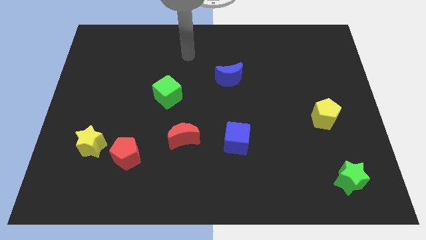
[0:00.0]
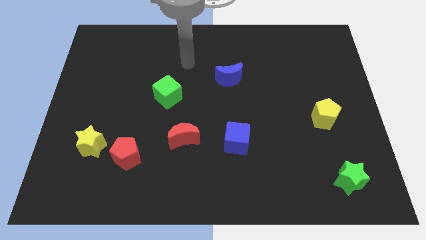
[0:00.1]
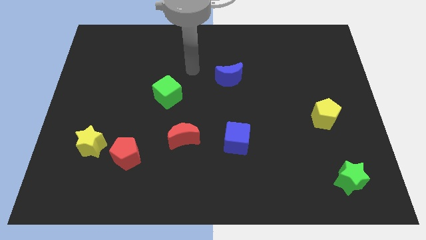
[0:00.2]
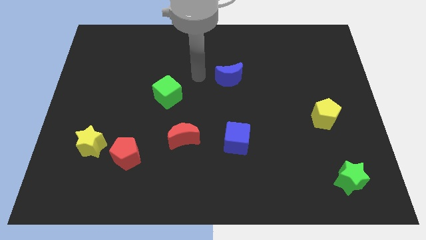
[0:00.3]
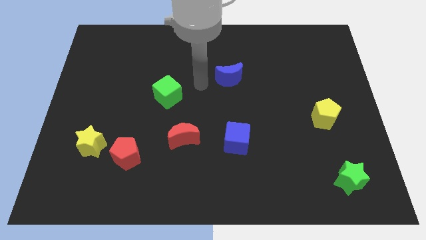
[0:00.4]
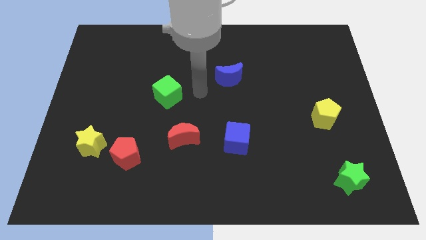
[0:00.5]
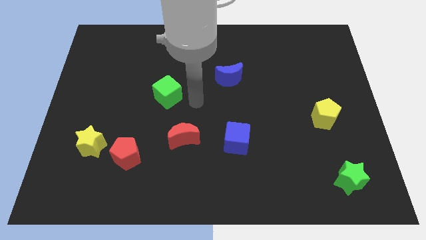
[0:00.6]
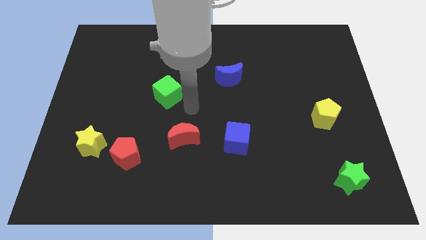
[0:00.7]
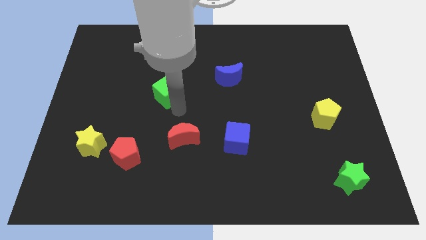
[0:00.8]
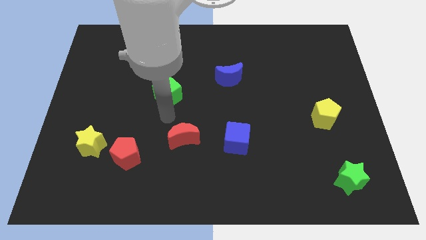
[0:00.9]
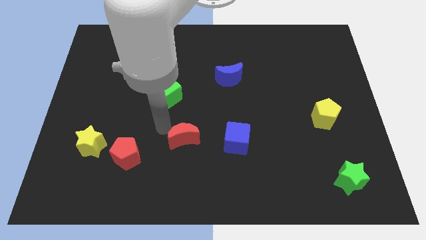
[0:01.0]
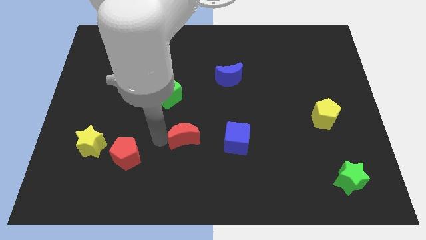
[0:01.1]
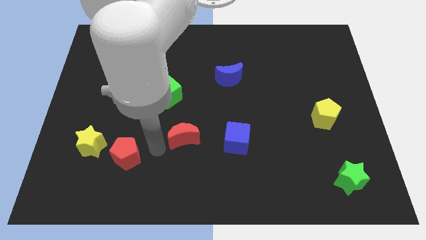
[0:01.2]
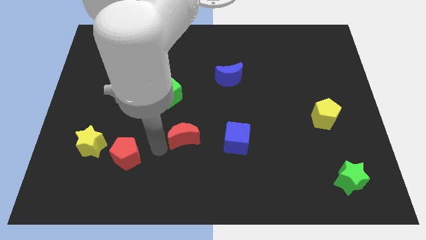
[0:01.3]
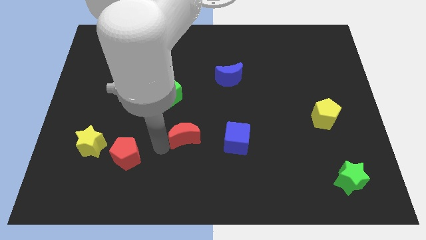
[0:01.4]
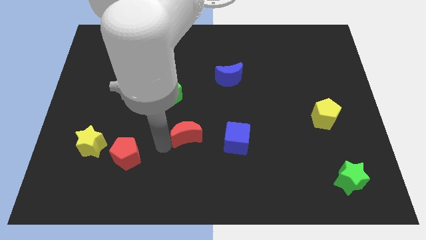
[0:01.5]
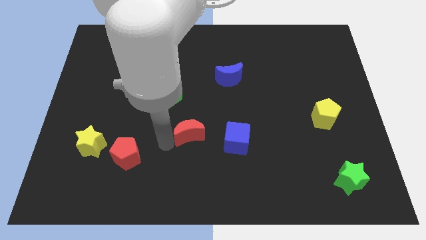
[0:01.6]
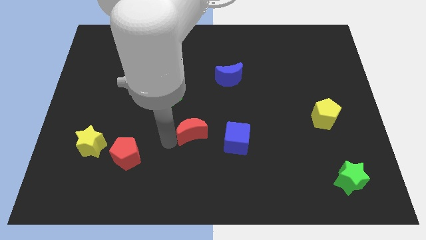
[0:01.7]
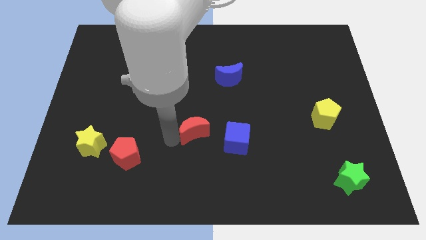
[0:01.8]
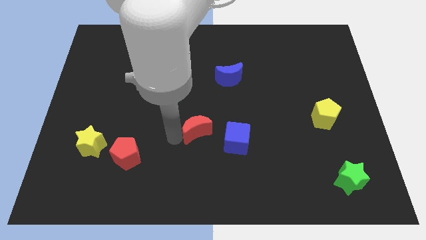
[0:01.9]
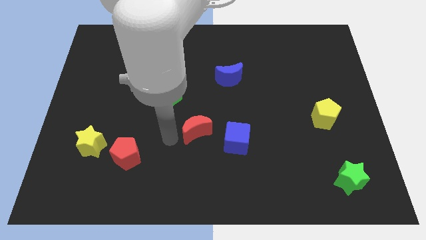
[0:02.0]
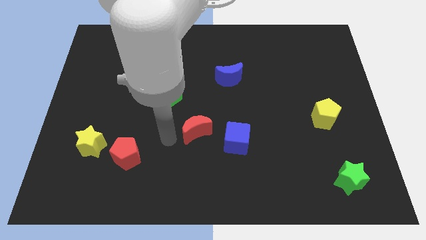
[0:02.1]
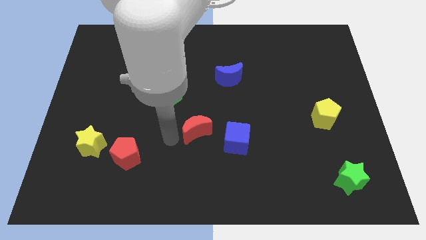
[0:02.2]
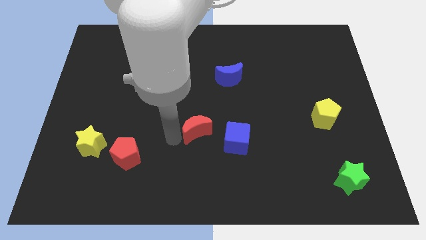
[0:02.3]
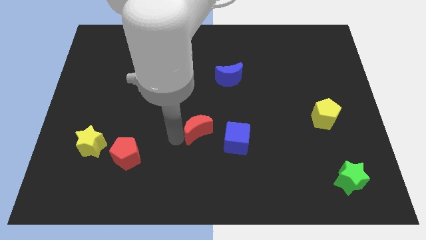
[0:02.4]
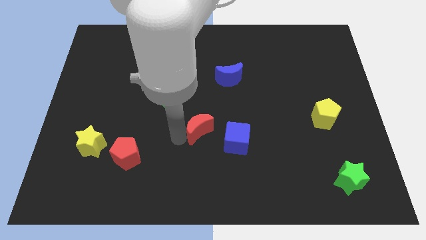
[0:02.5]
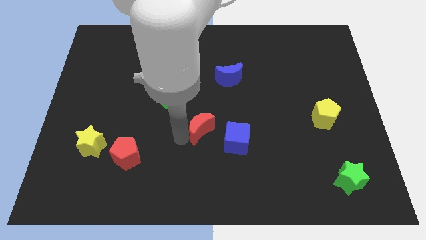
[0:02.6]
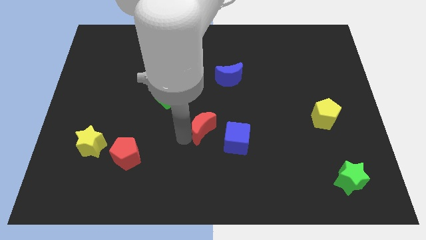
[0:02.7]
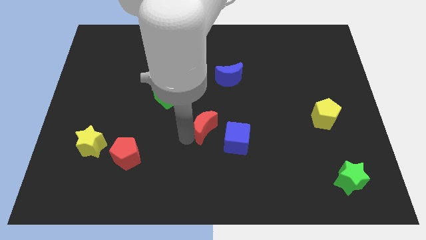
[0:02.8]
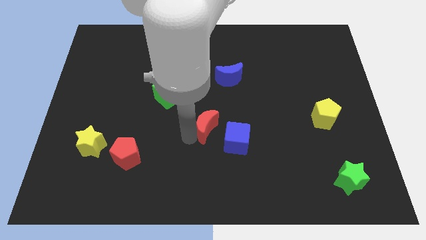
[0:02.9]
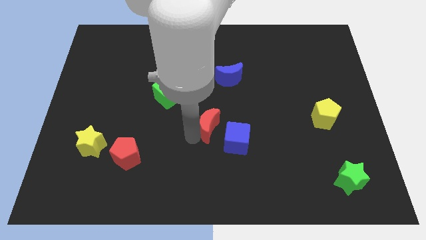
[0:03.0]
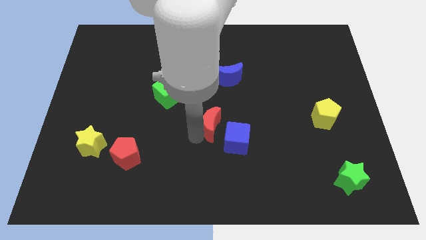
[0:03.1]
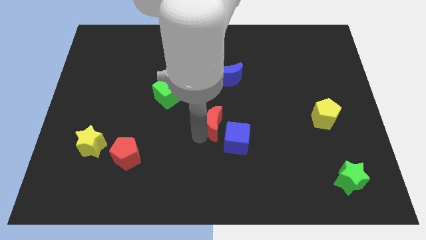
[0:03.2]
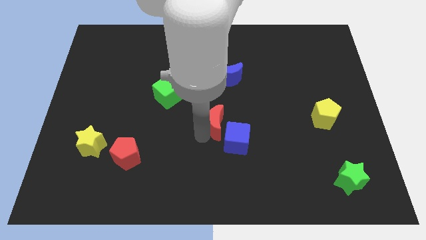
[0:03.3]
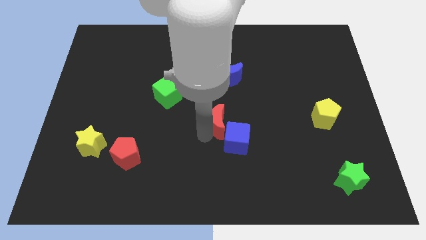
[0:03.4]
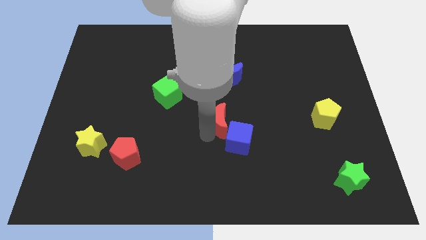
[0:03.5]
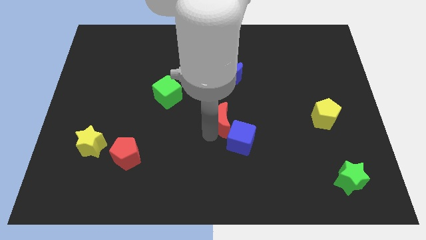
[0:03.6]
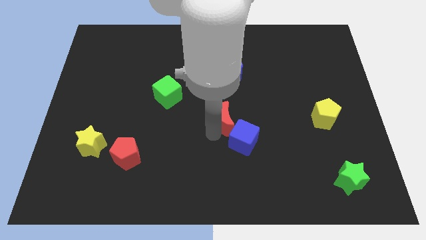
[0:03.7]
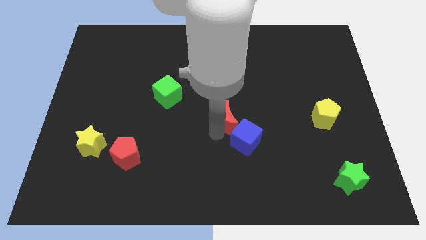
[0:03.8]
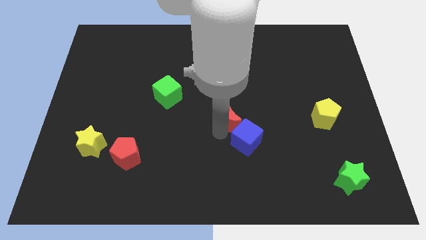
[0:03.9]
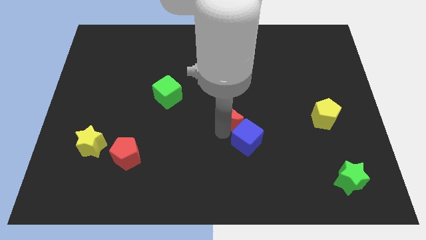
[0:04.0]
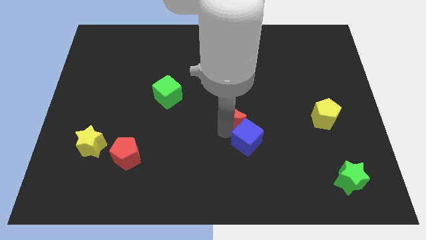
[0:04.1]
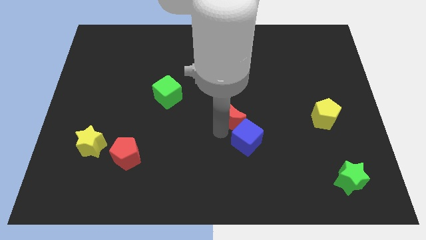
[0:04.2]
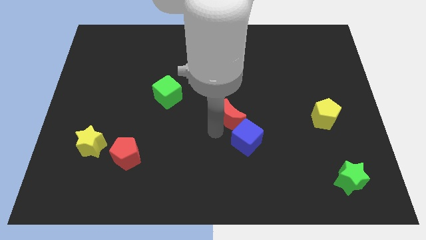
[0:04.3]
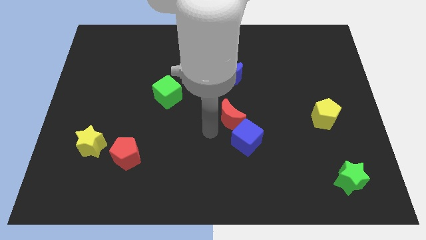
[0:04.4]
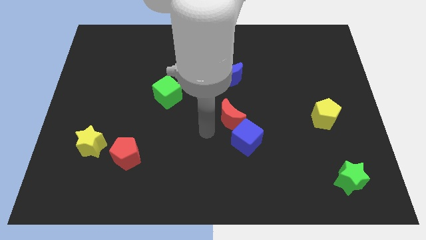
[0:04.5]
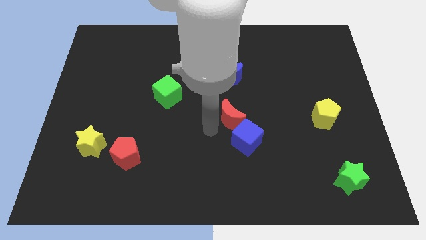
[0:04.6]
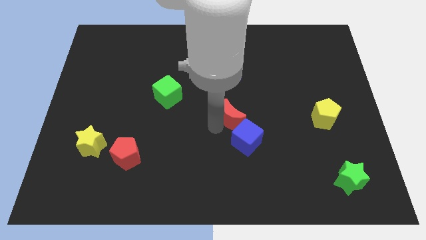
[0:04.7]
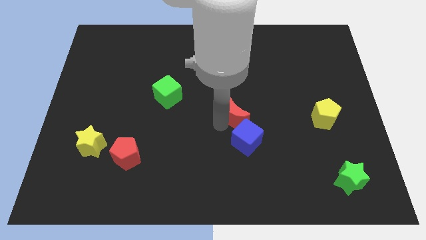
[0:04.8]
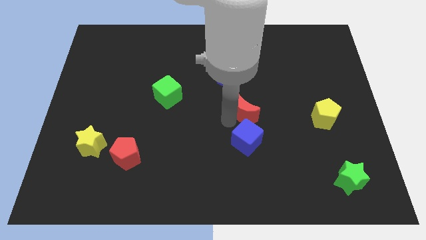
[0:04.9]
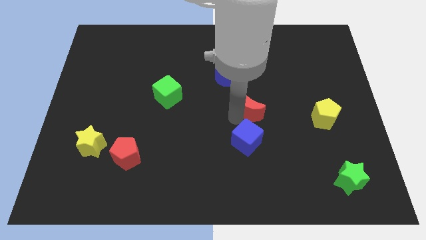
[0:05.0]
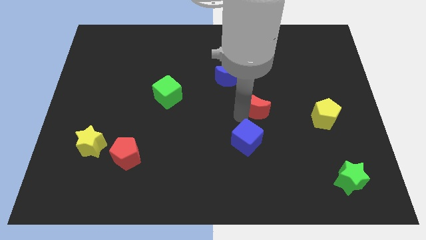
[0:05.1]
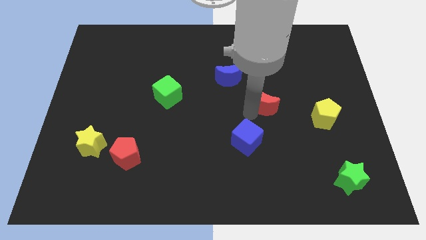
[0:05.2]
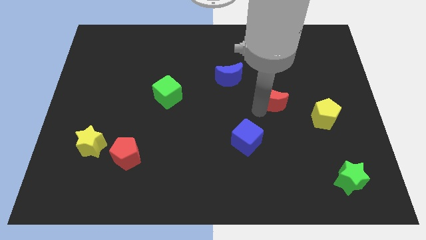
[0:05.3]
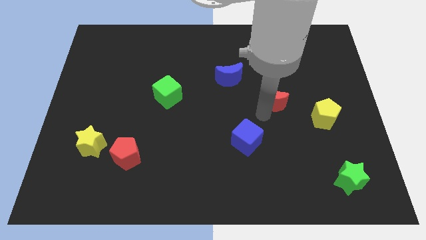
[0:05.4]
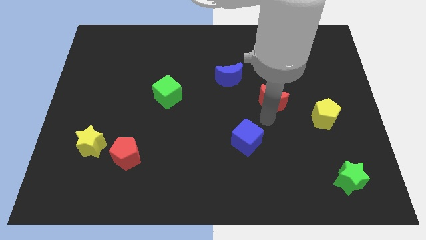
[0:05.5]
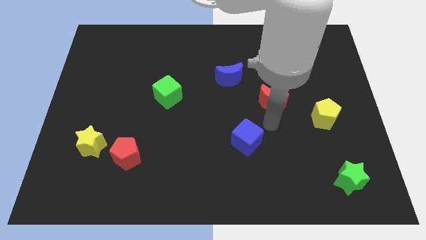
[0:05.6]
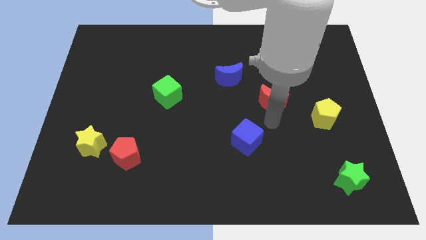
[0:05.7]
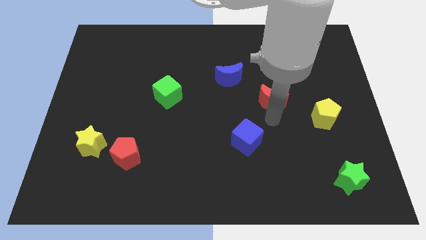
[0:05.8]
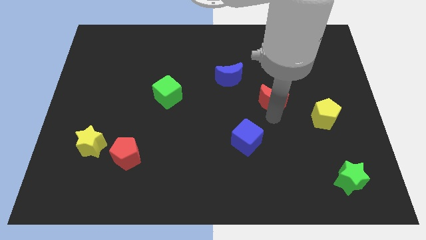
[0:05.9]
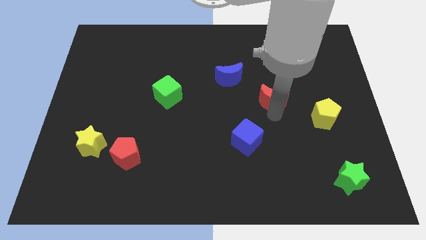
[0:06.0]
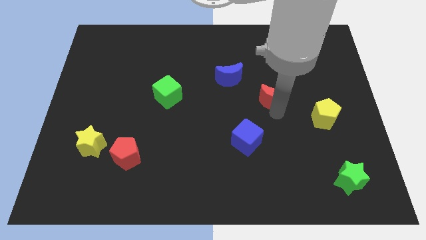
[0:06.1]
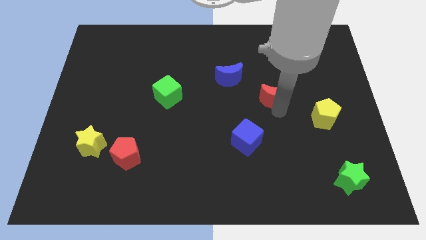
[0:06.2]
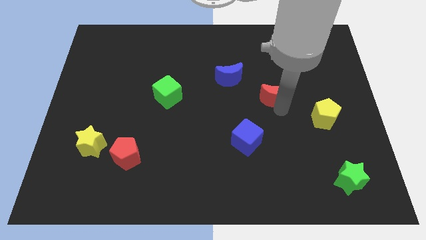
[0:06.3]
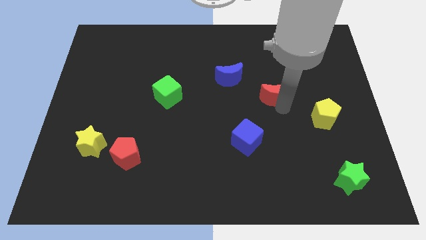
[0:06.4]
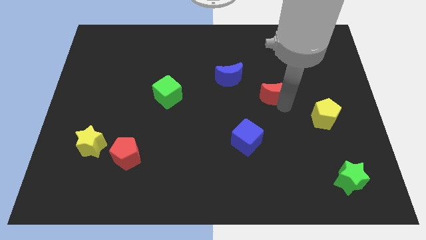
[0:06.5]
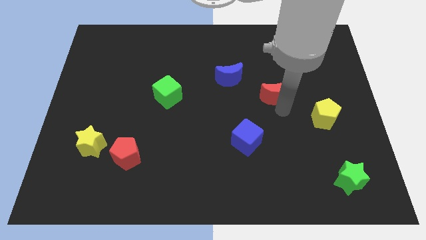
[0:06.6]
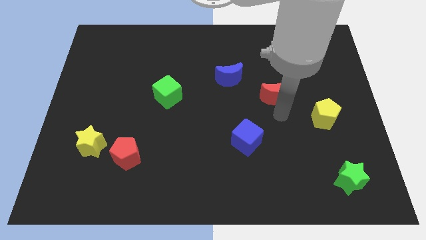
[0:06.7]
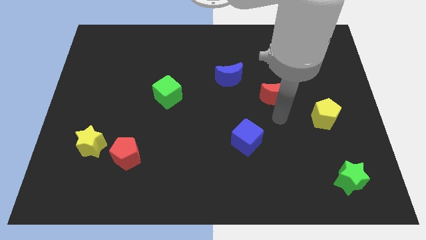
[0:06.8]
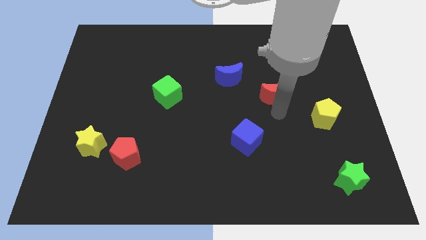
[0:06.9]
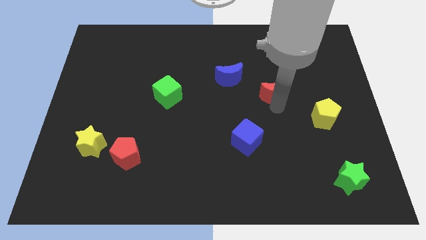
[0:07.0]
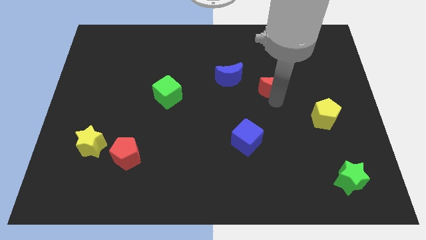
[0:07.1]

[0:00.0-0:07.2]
put the red moon just right of the blue moon
